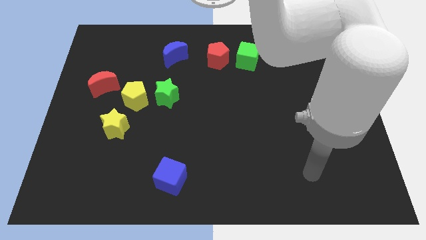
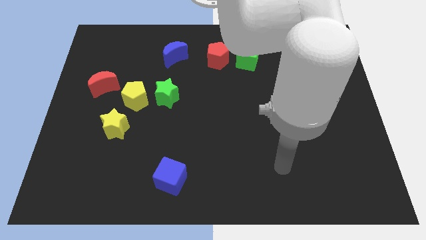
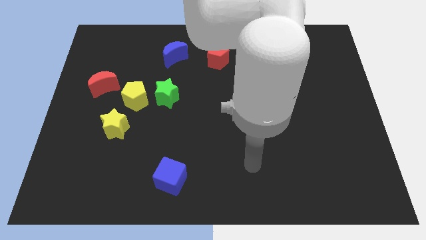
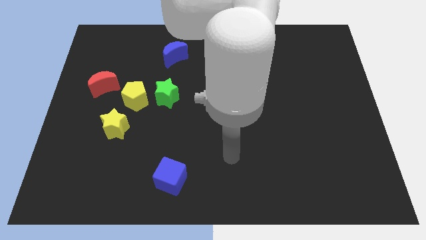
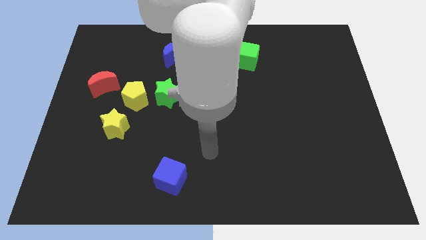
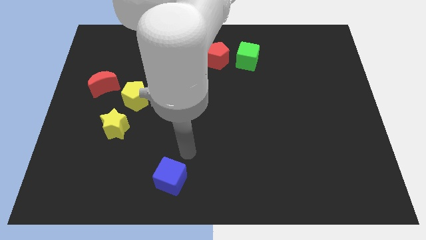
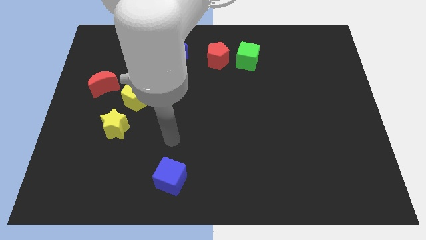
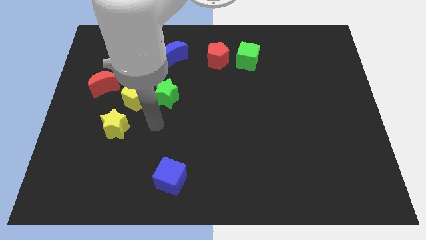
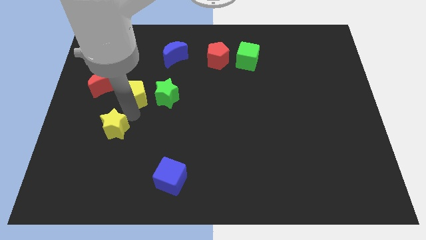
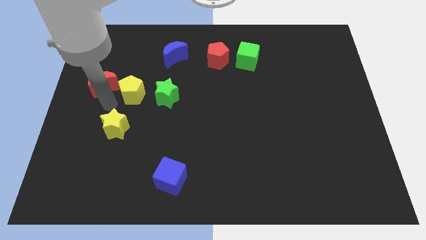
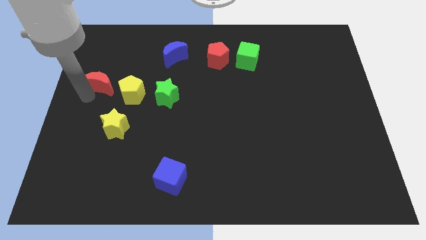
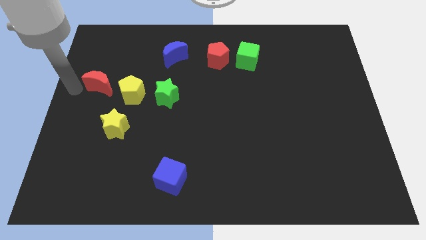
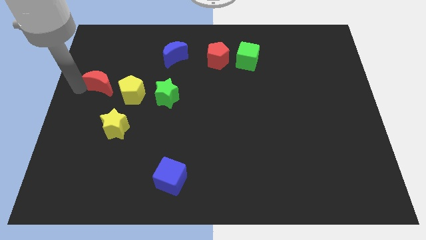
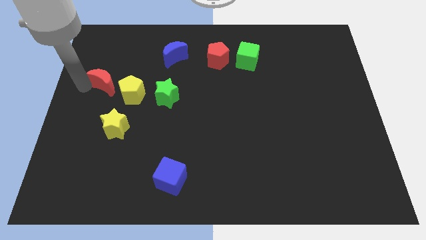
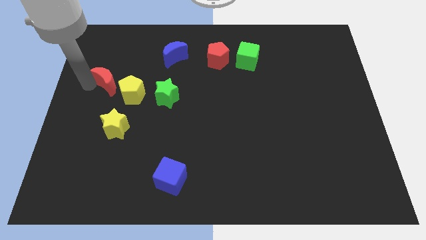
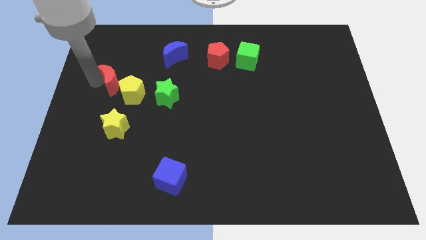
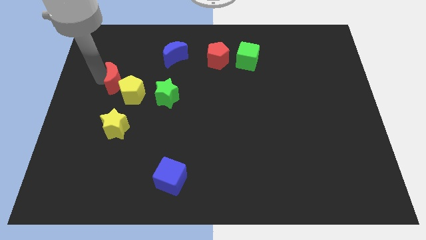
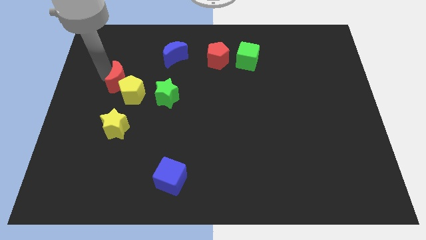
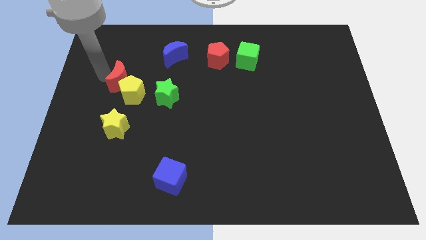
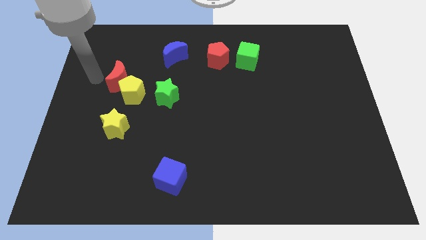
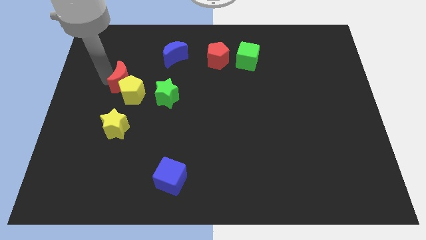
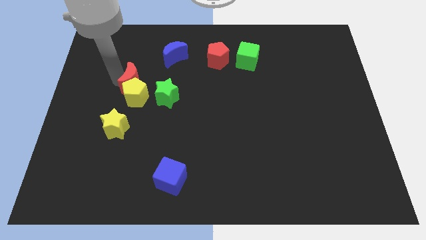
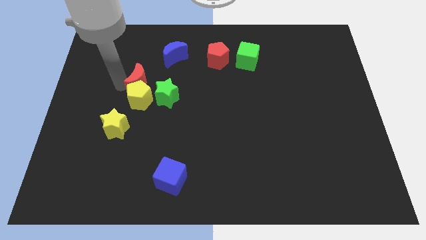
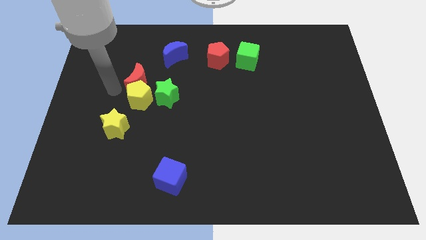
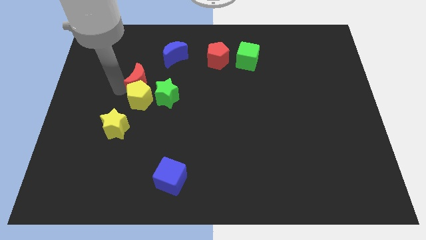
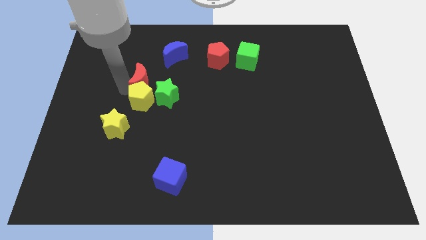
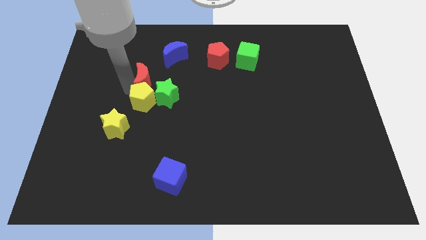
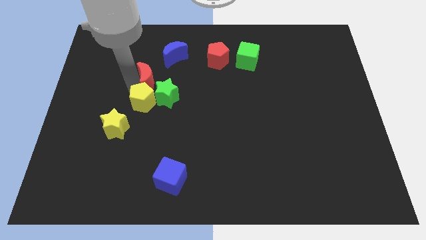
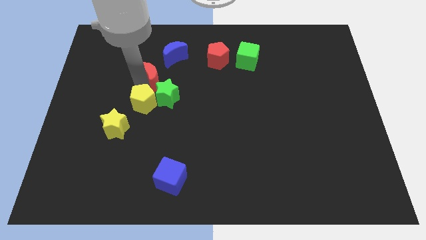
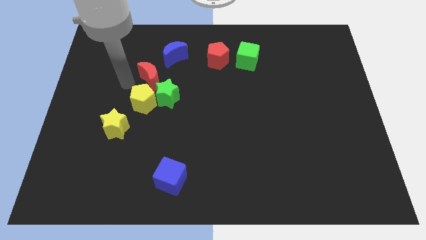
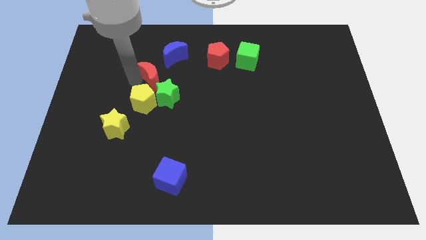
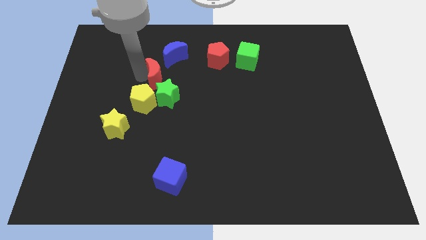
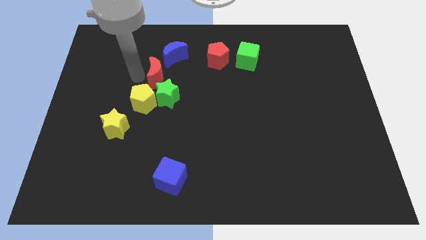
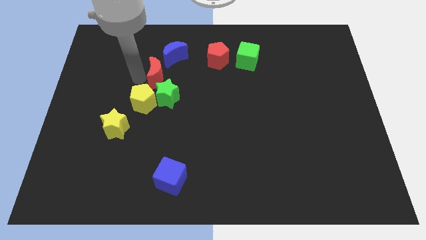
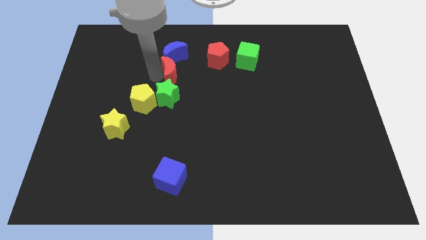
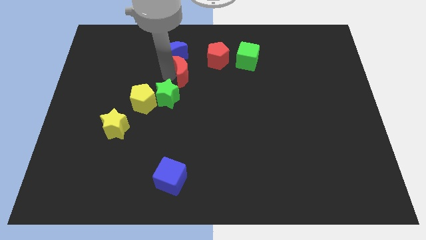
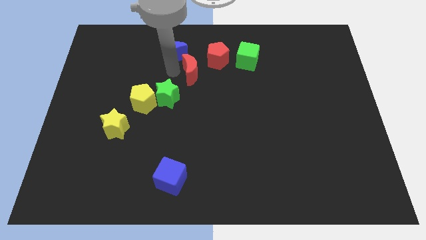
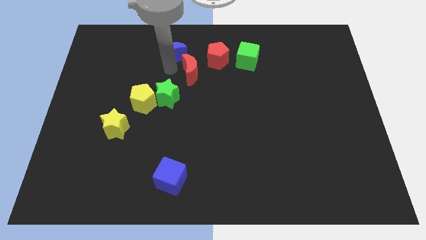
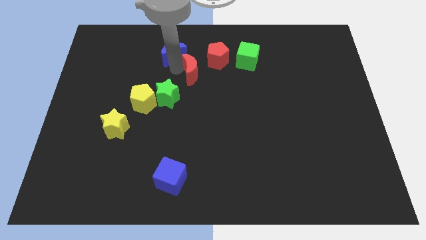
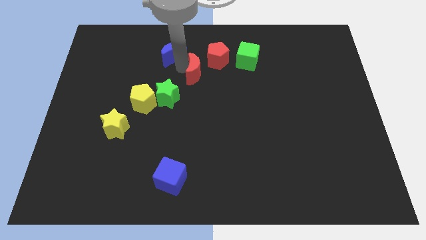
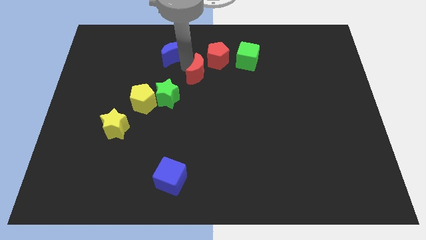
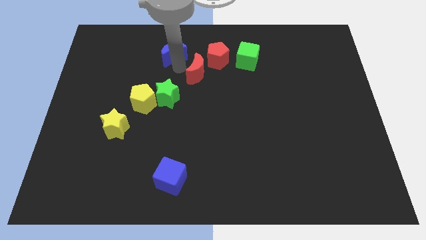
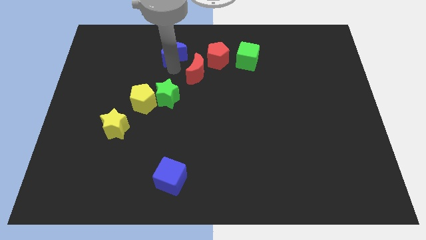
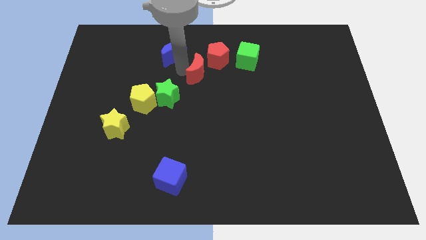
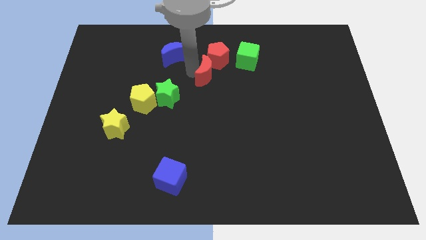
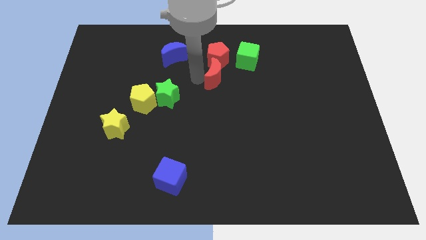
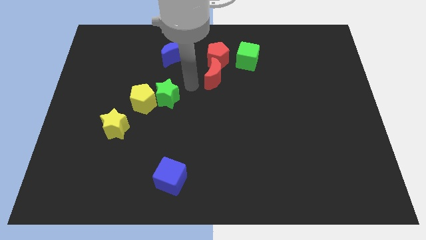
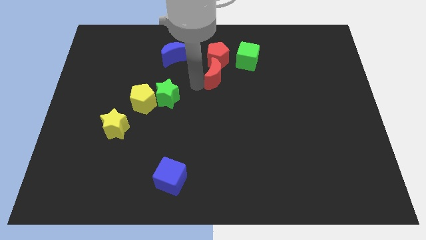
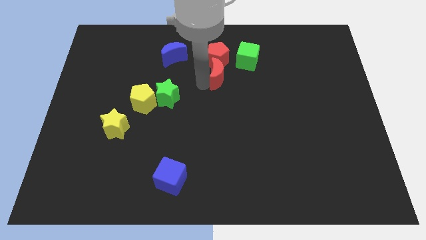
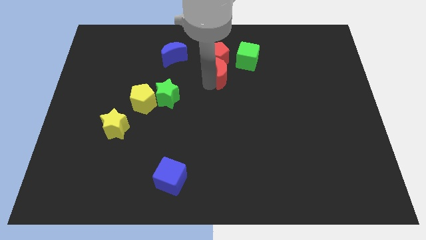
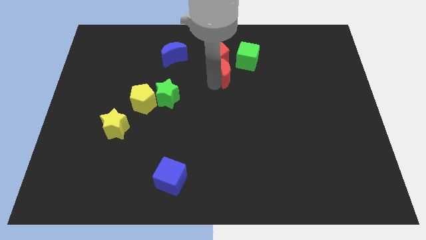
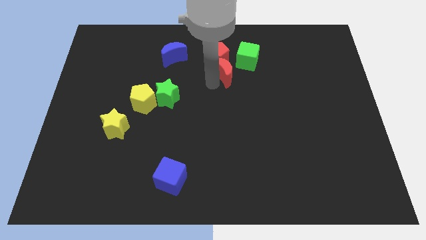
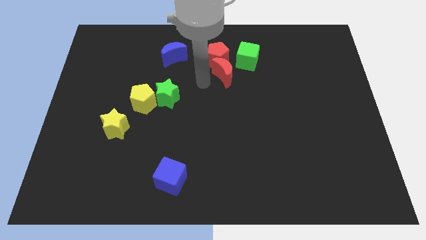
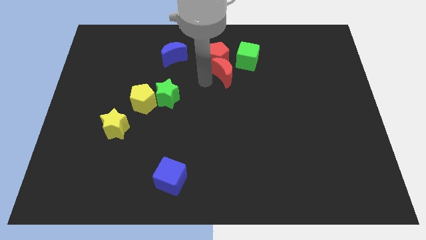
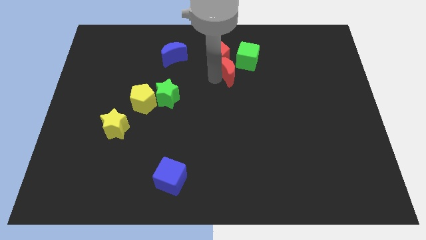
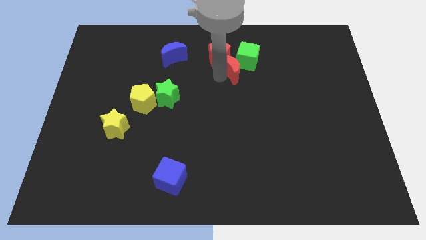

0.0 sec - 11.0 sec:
move the red moon towards the green cube

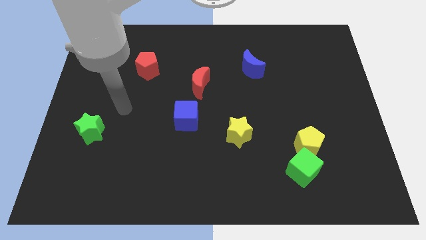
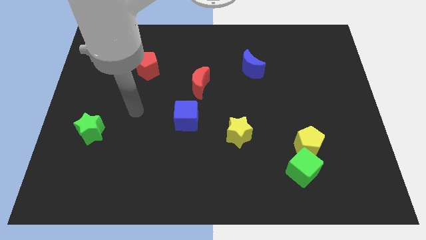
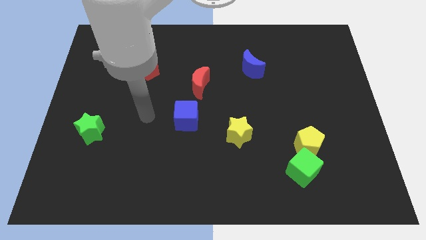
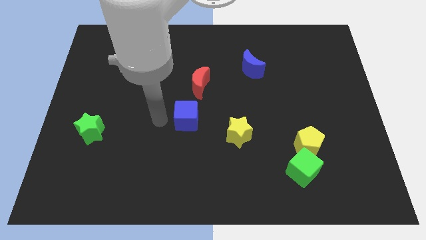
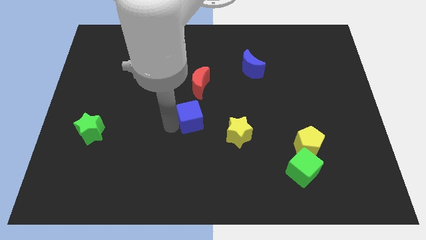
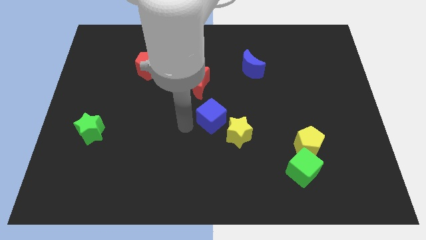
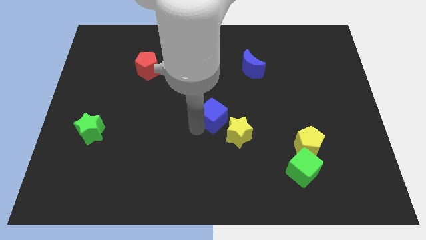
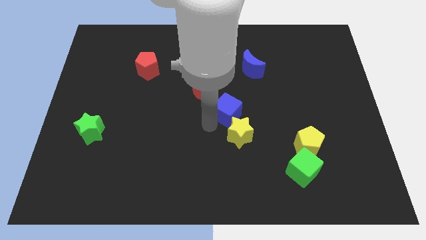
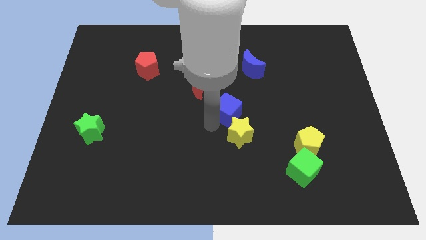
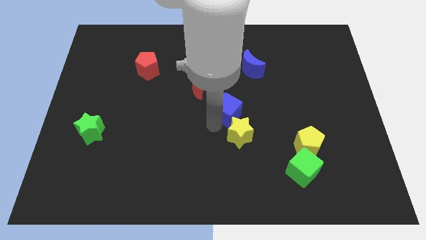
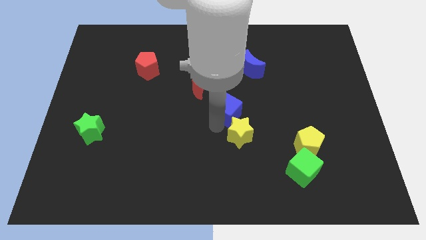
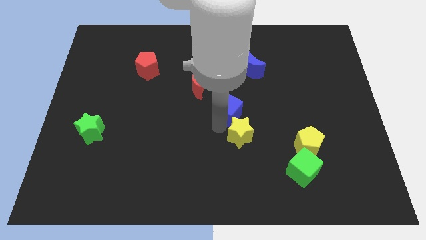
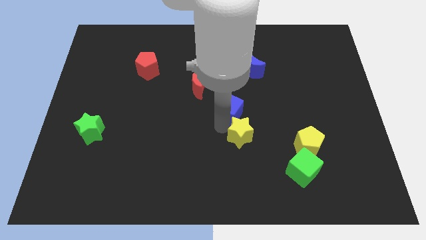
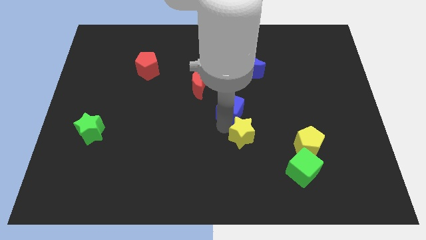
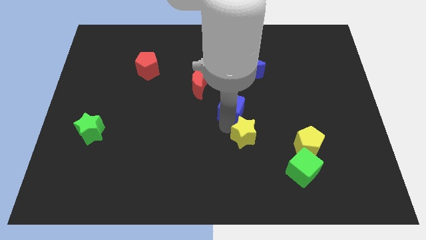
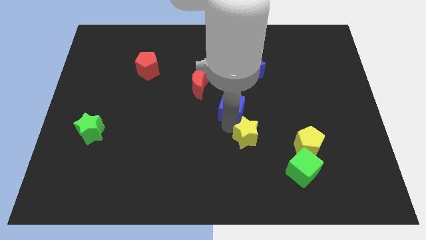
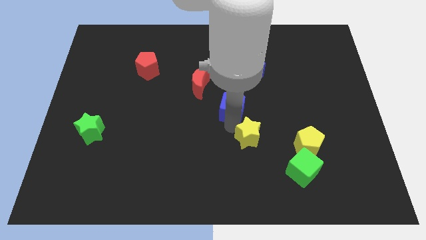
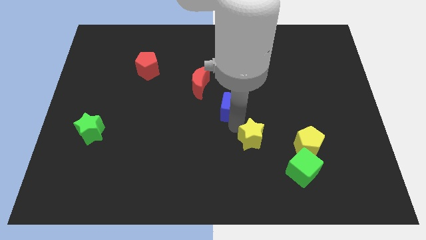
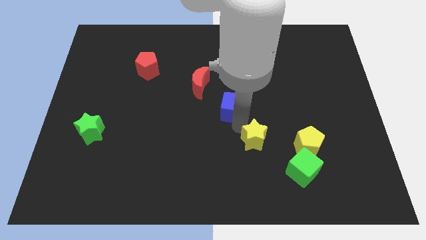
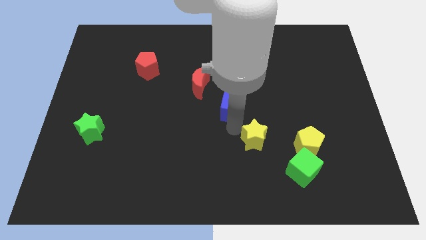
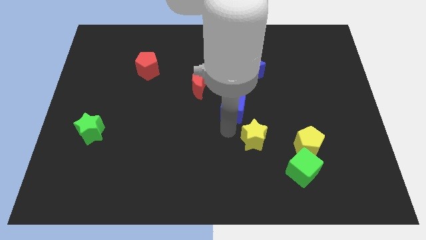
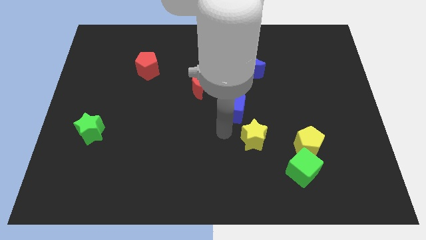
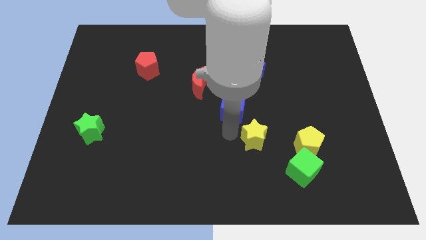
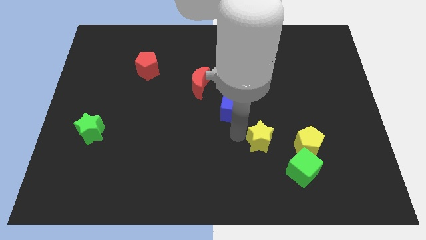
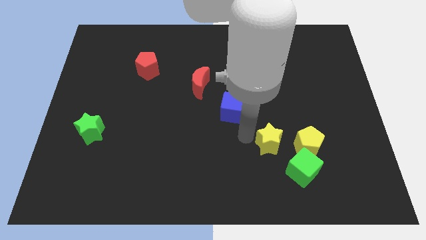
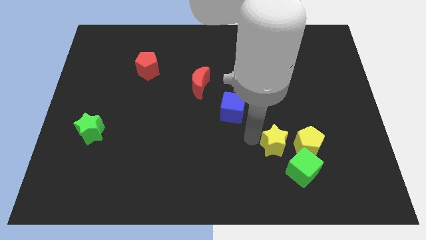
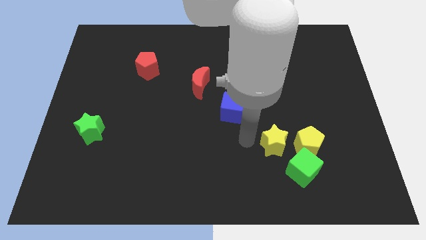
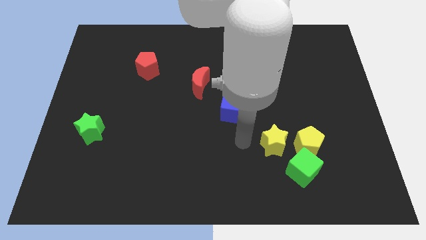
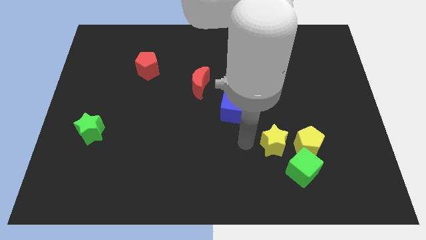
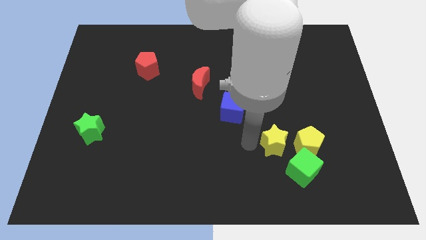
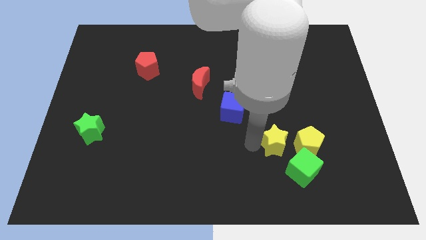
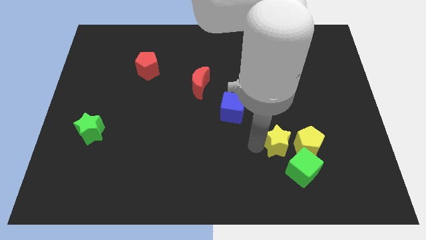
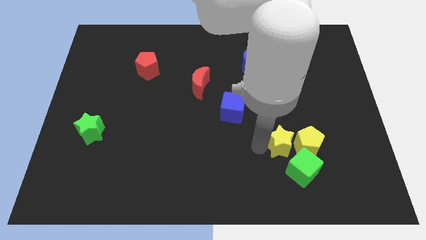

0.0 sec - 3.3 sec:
slide the yellow star to the yellow pentagon
